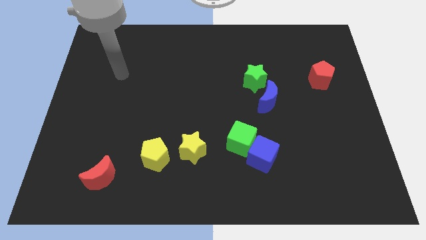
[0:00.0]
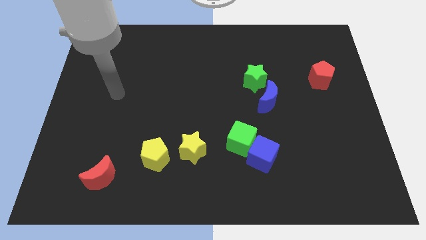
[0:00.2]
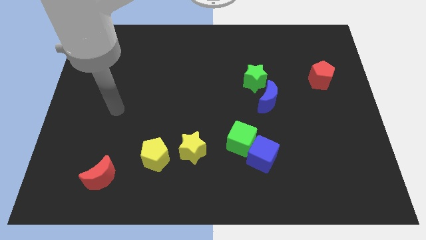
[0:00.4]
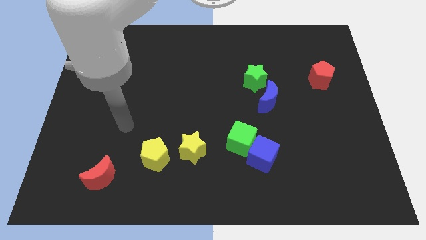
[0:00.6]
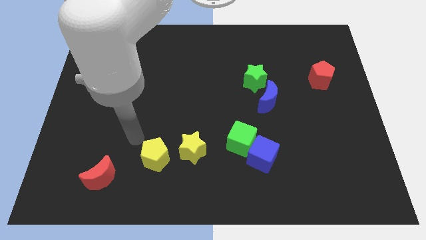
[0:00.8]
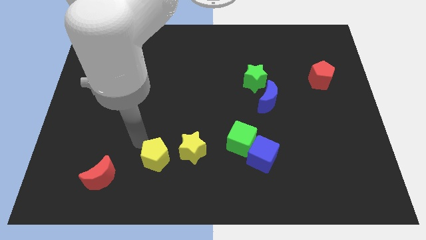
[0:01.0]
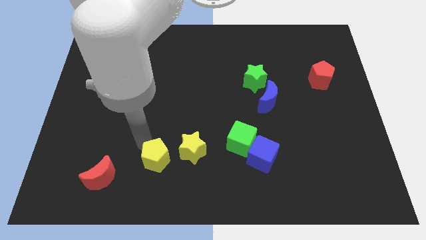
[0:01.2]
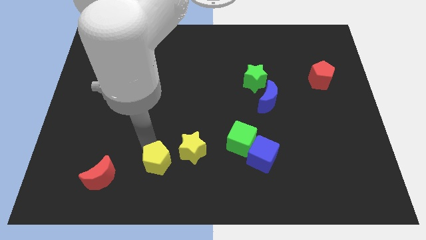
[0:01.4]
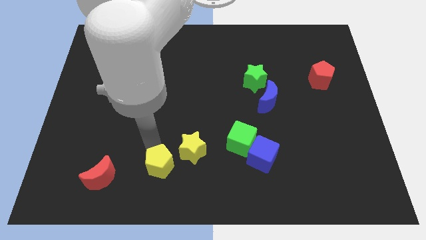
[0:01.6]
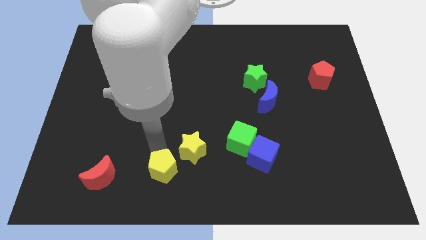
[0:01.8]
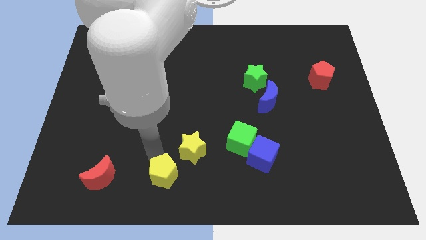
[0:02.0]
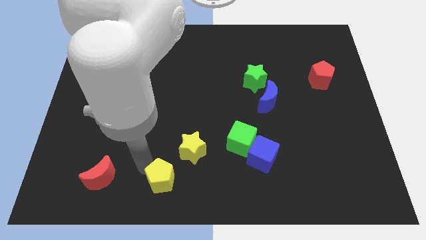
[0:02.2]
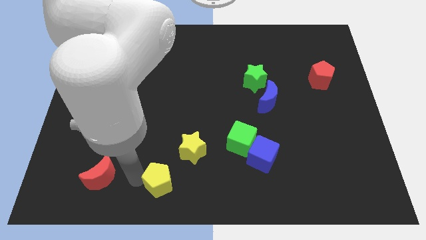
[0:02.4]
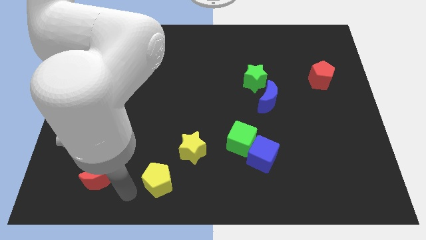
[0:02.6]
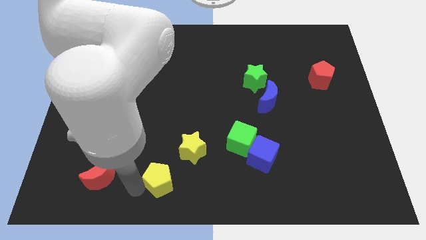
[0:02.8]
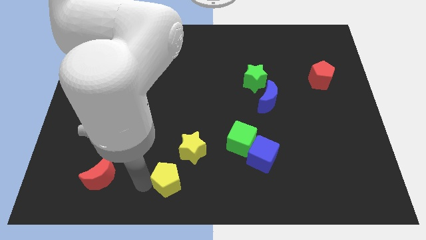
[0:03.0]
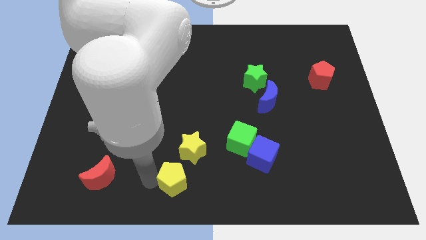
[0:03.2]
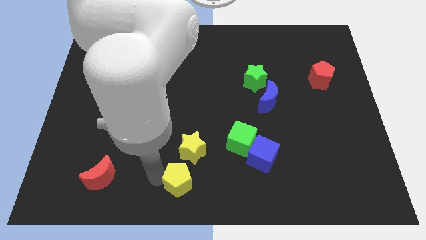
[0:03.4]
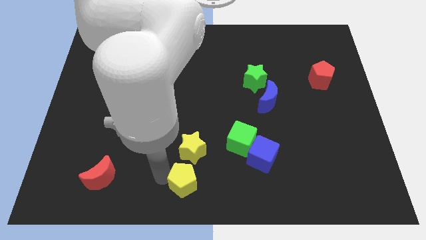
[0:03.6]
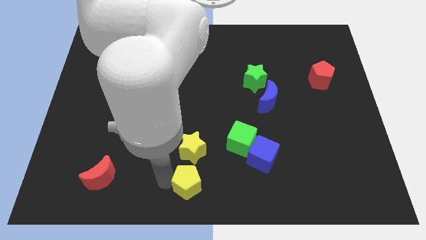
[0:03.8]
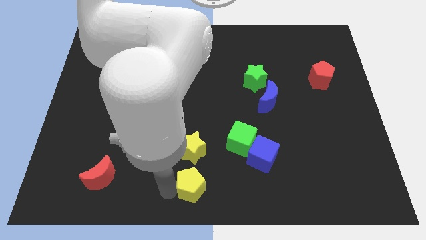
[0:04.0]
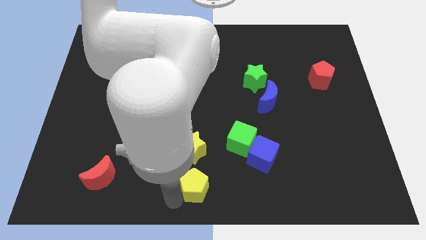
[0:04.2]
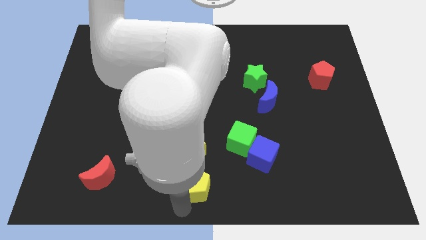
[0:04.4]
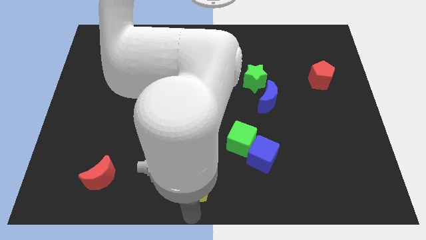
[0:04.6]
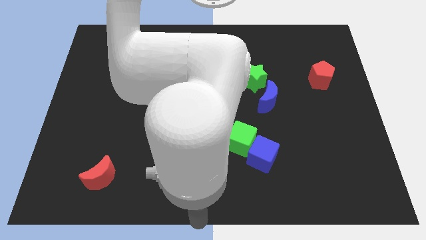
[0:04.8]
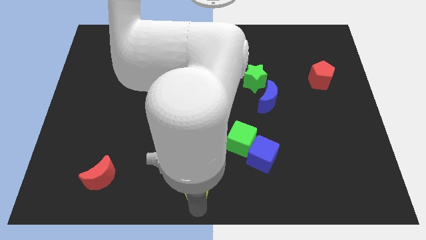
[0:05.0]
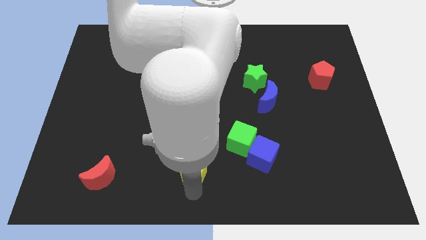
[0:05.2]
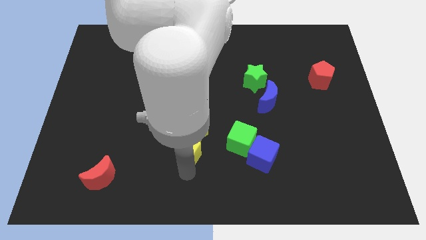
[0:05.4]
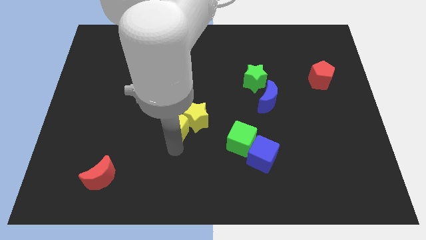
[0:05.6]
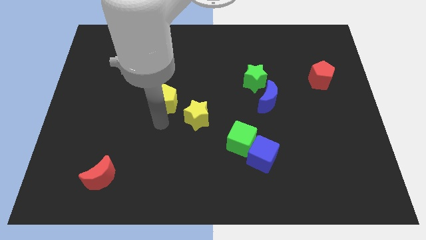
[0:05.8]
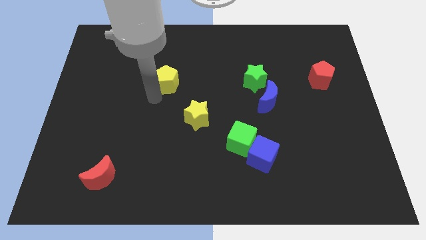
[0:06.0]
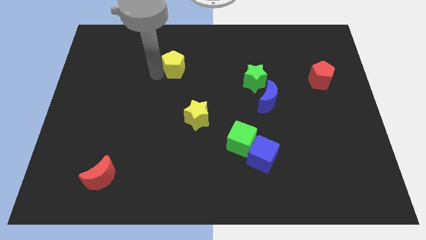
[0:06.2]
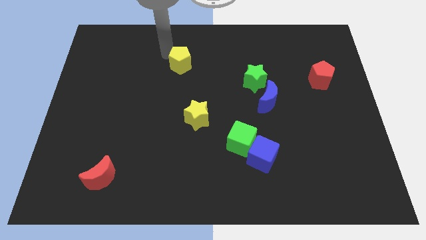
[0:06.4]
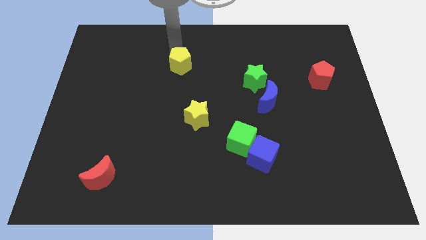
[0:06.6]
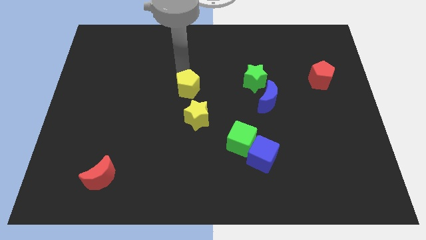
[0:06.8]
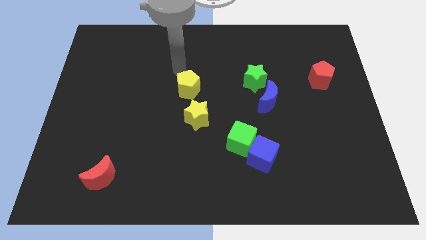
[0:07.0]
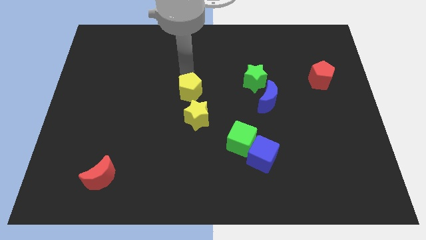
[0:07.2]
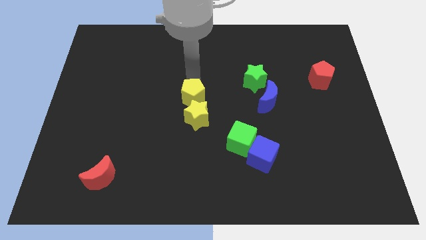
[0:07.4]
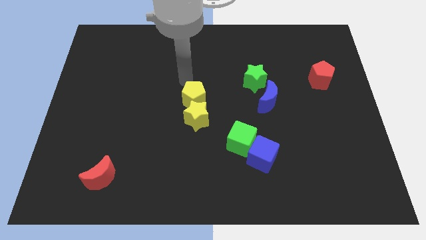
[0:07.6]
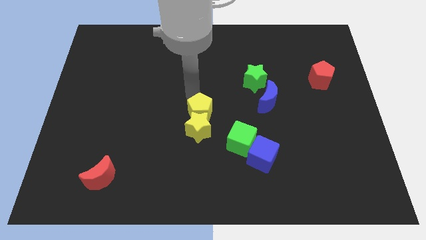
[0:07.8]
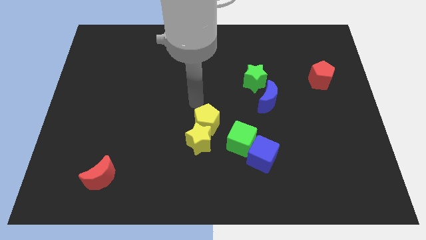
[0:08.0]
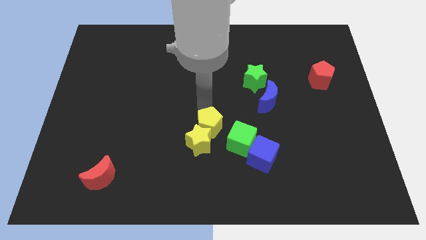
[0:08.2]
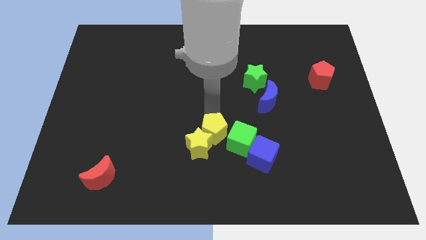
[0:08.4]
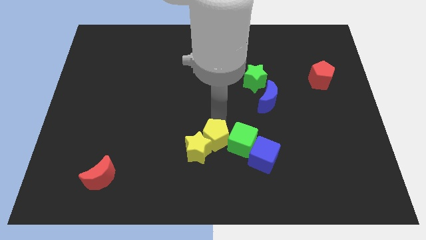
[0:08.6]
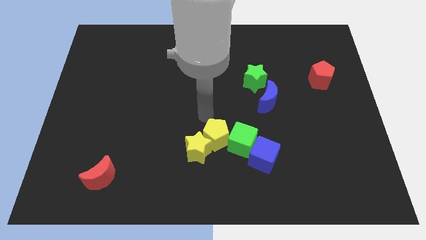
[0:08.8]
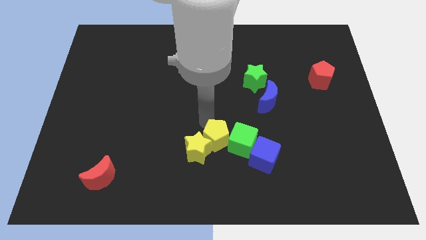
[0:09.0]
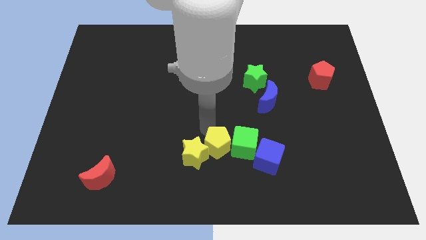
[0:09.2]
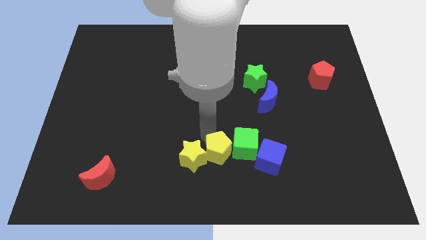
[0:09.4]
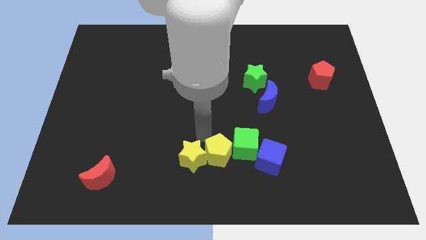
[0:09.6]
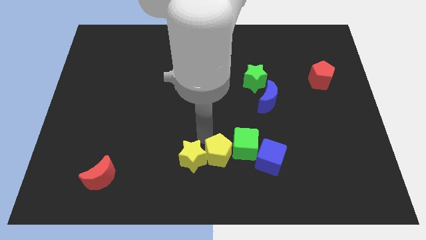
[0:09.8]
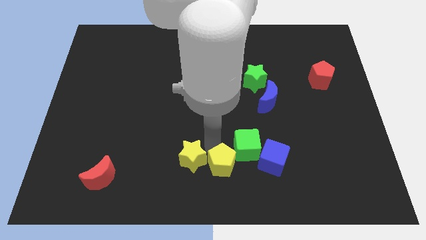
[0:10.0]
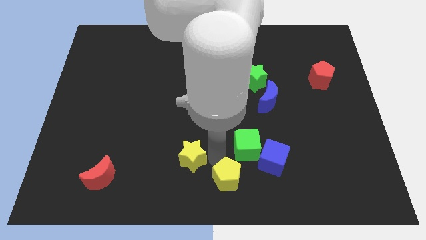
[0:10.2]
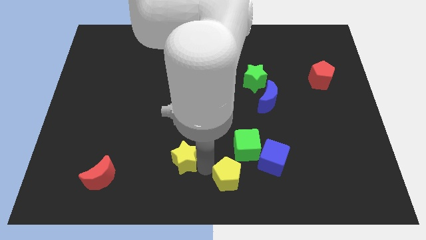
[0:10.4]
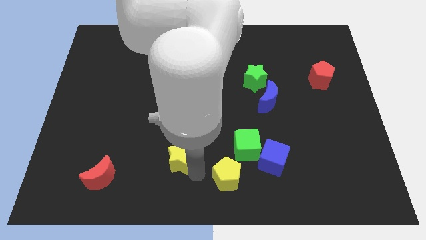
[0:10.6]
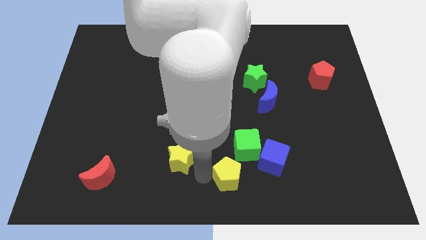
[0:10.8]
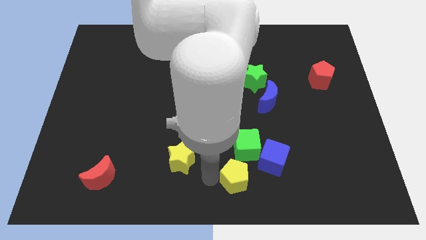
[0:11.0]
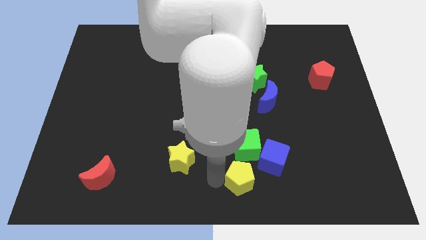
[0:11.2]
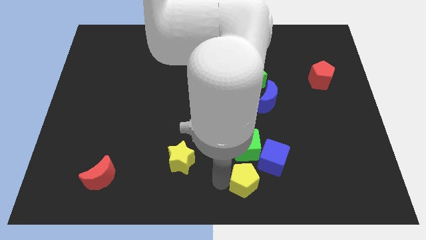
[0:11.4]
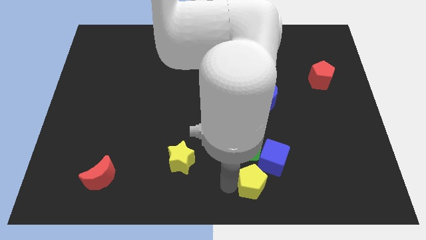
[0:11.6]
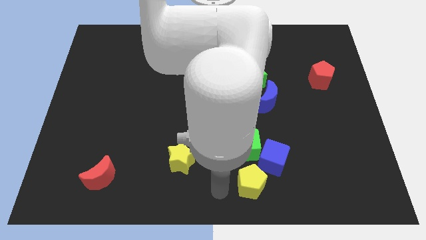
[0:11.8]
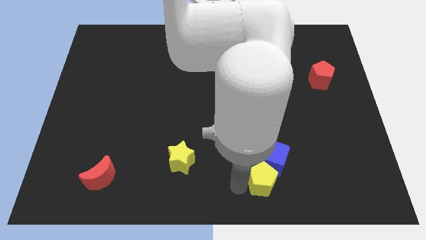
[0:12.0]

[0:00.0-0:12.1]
move the yellow pentagon right

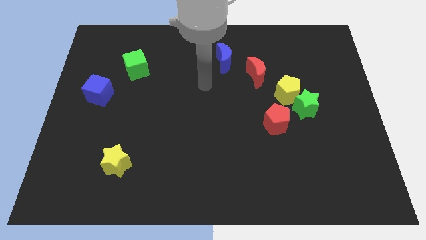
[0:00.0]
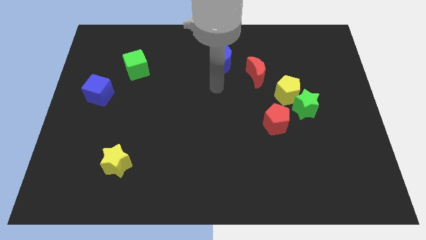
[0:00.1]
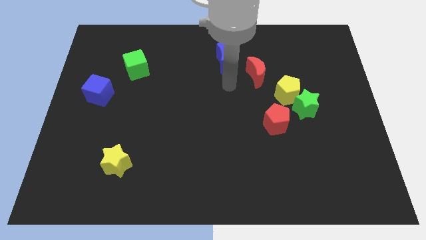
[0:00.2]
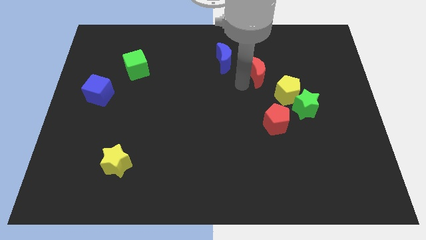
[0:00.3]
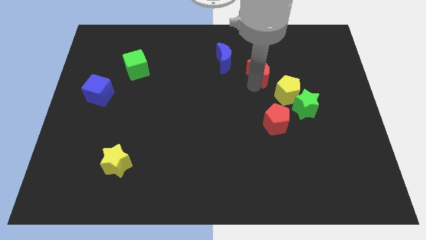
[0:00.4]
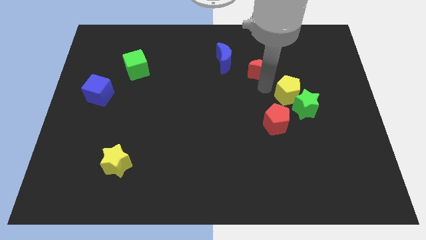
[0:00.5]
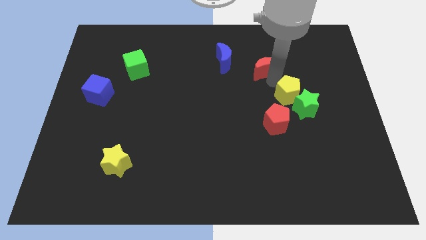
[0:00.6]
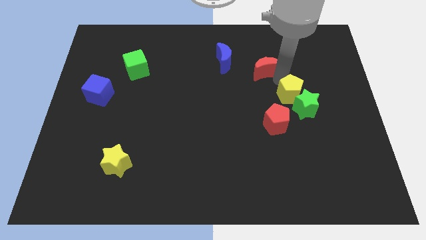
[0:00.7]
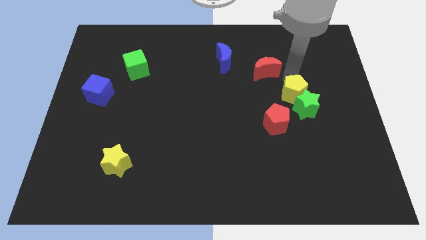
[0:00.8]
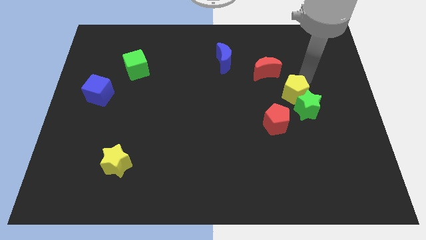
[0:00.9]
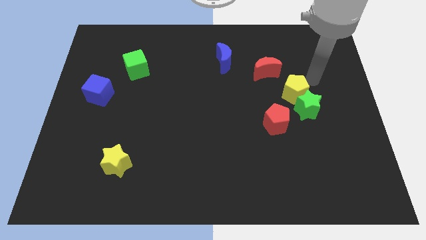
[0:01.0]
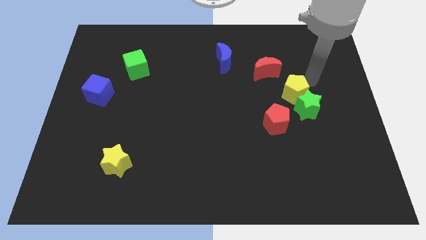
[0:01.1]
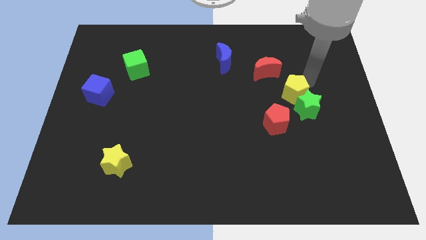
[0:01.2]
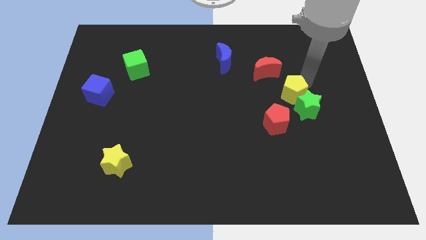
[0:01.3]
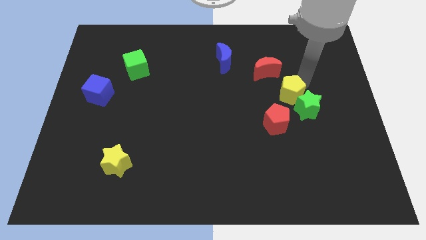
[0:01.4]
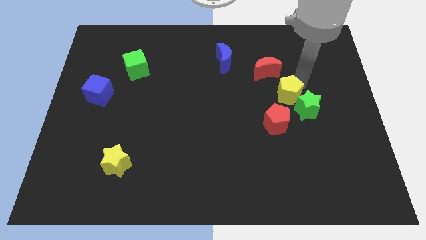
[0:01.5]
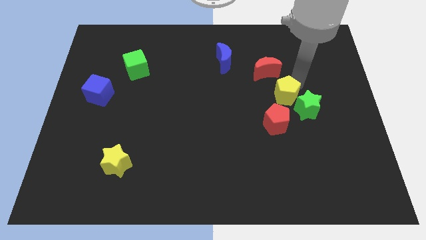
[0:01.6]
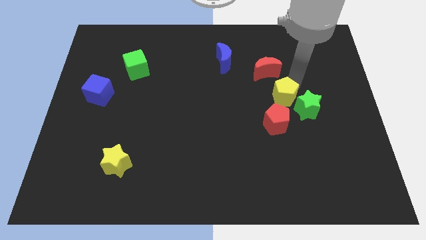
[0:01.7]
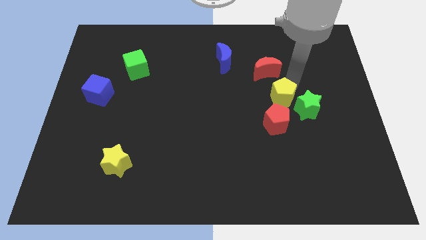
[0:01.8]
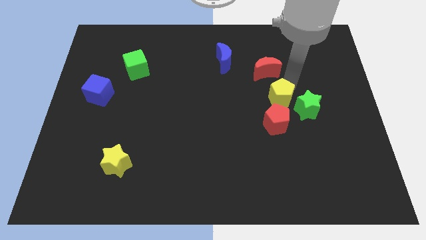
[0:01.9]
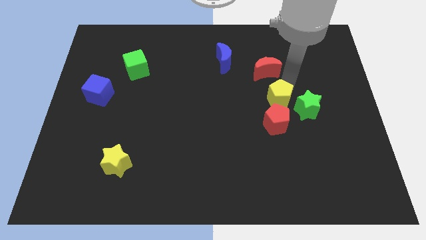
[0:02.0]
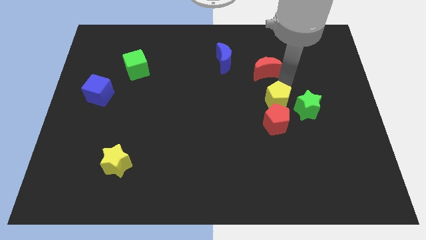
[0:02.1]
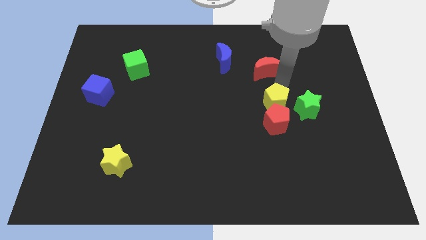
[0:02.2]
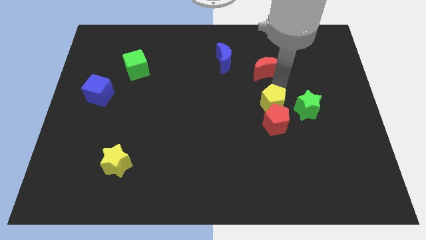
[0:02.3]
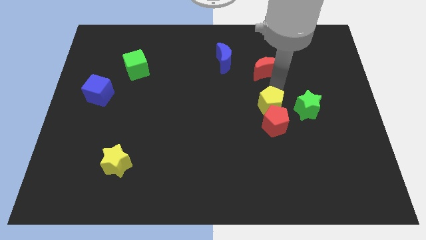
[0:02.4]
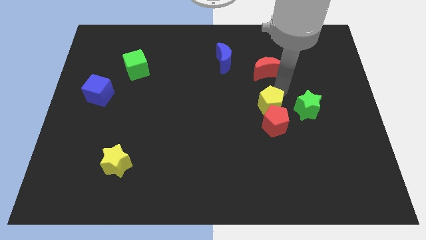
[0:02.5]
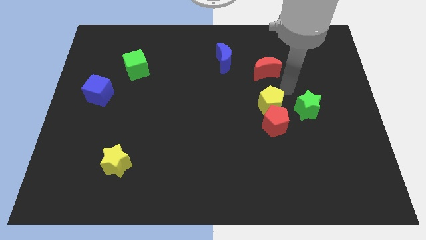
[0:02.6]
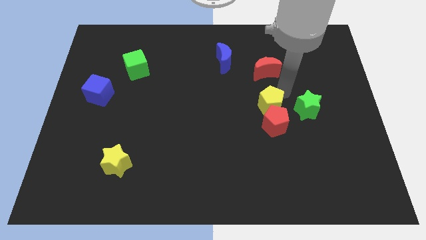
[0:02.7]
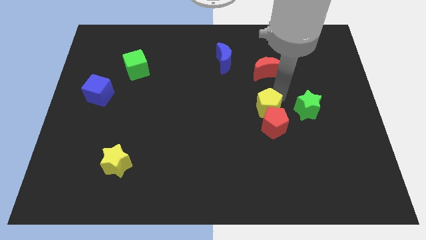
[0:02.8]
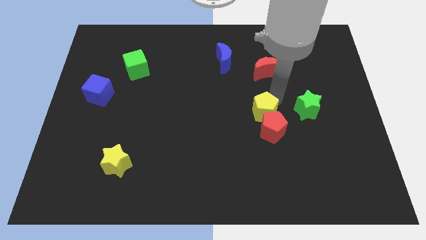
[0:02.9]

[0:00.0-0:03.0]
push the yellow pentagon a bit downwards and to the left
